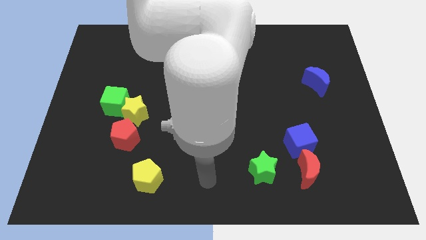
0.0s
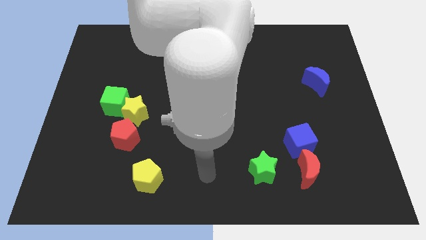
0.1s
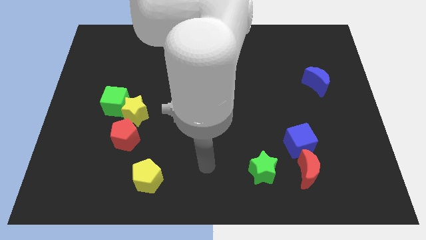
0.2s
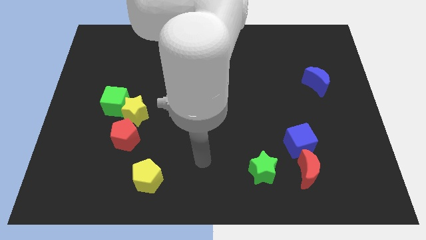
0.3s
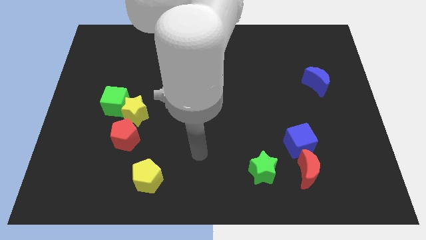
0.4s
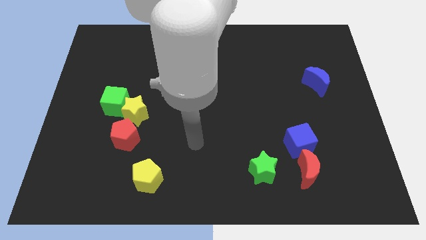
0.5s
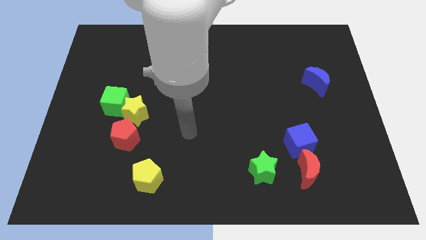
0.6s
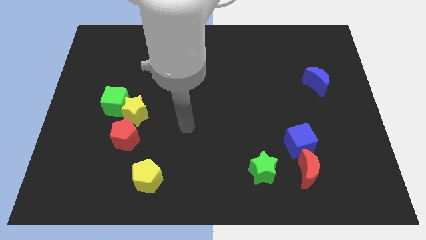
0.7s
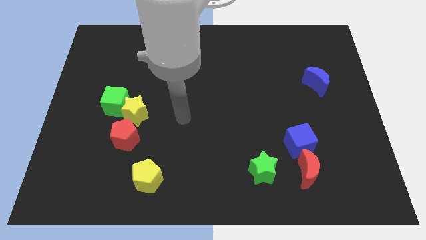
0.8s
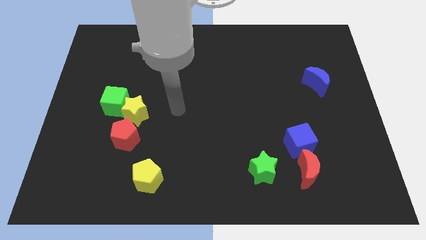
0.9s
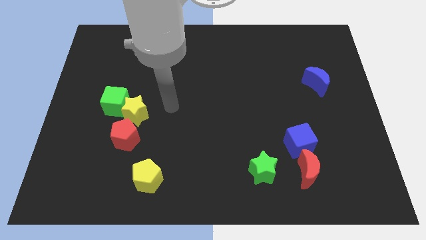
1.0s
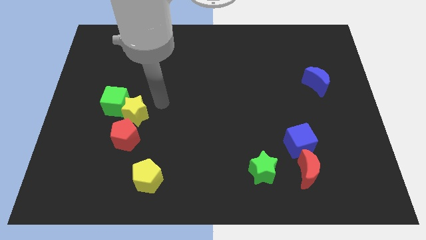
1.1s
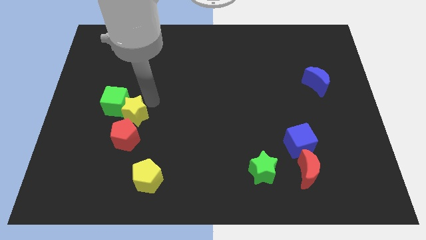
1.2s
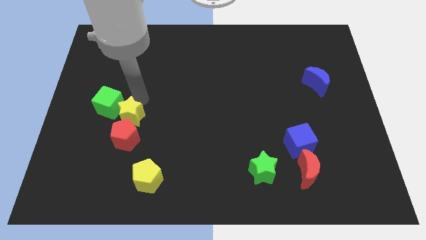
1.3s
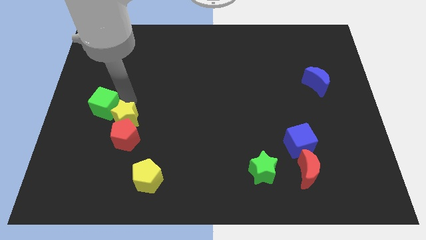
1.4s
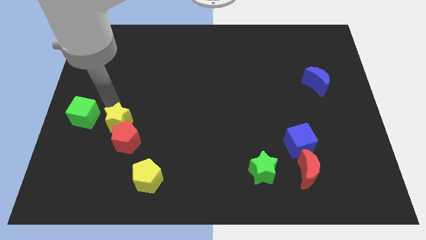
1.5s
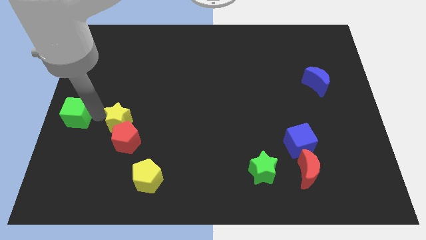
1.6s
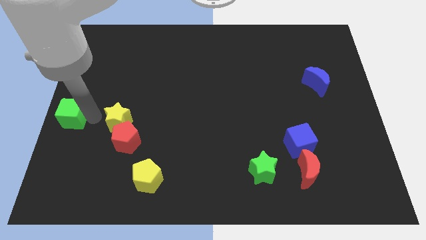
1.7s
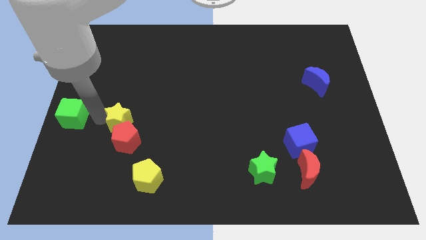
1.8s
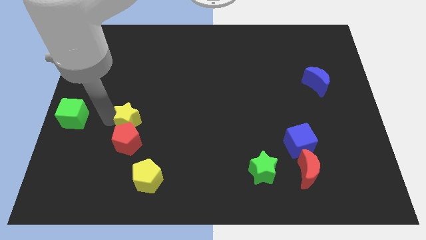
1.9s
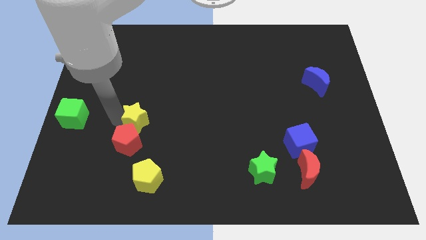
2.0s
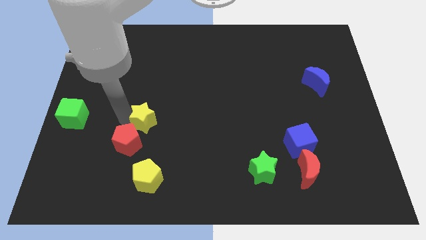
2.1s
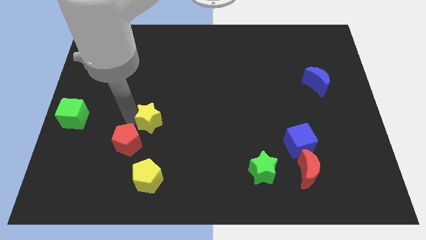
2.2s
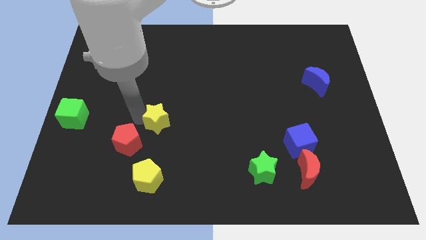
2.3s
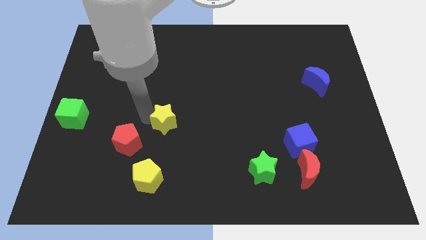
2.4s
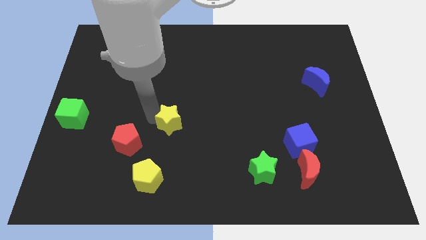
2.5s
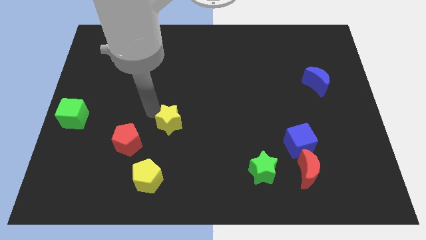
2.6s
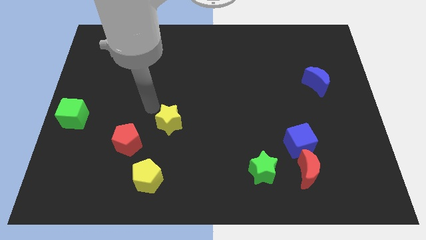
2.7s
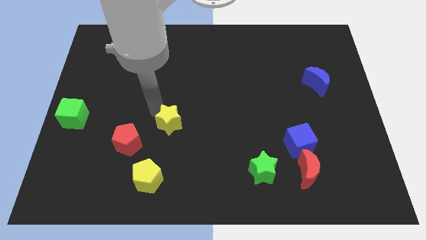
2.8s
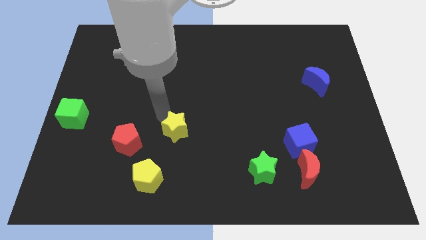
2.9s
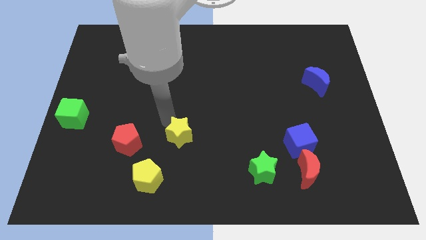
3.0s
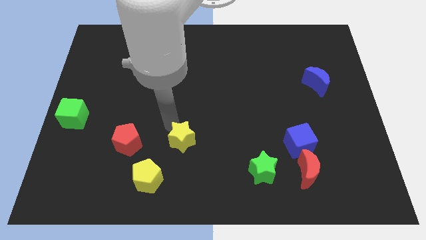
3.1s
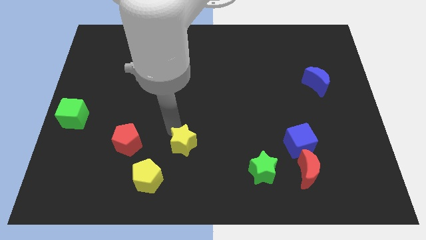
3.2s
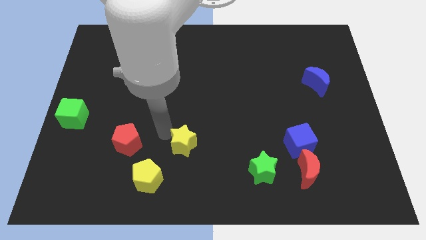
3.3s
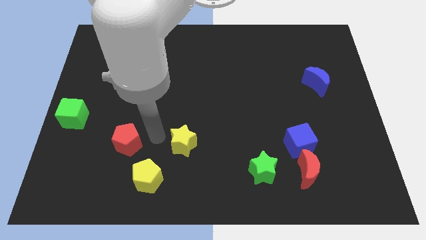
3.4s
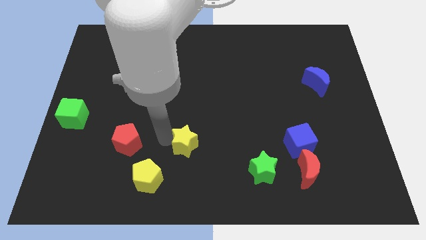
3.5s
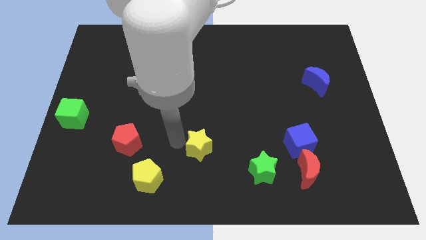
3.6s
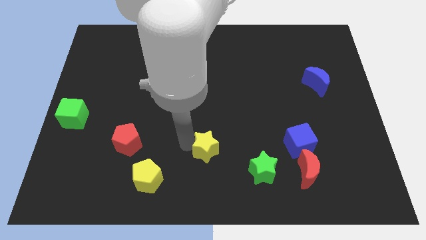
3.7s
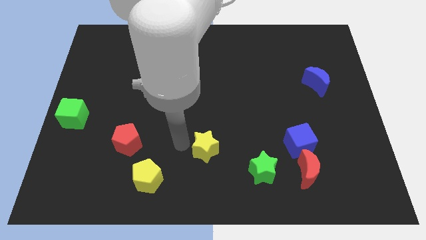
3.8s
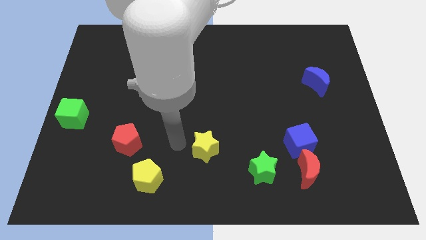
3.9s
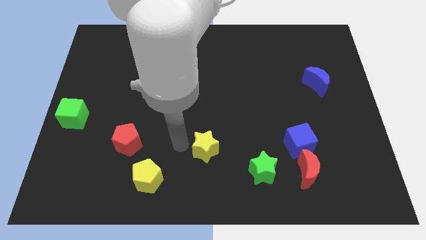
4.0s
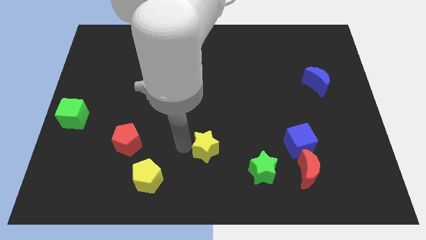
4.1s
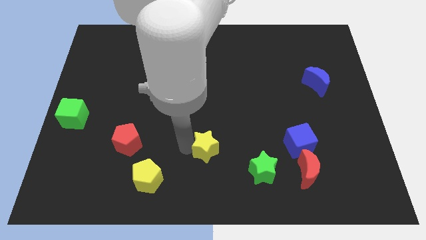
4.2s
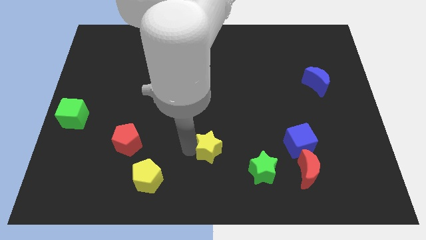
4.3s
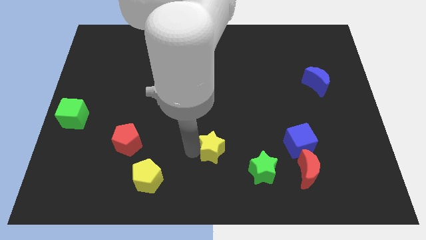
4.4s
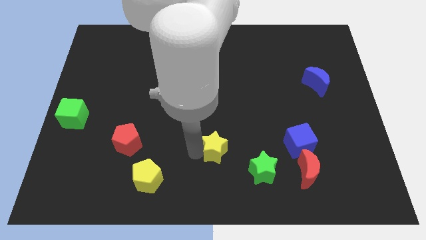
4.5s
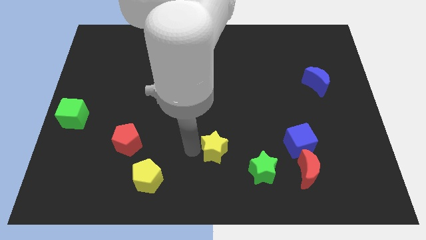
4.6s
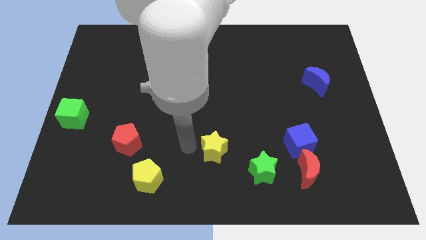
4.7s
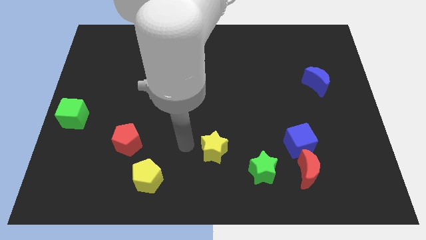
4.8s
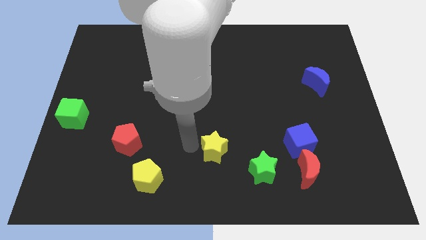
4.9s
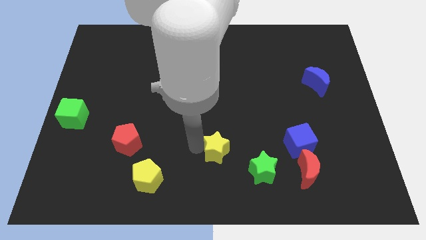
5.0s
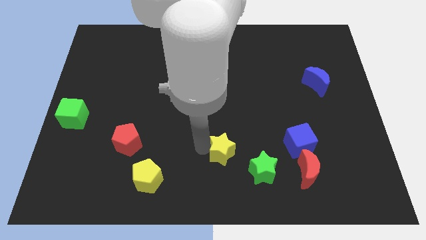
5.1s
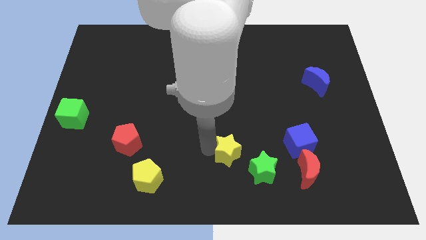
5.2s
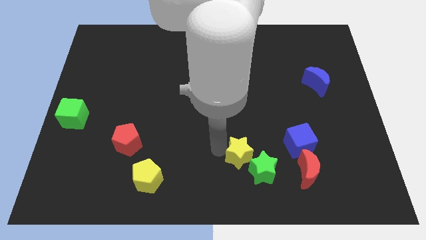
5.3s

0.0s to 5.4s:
put the yellow star towards the green star

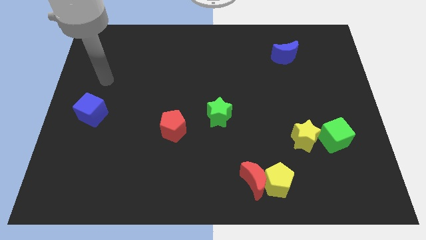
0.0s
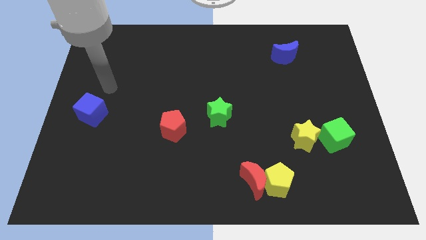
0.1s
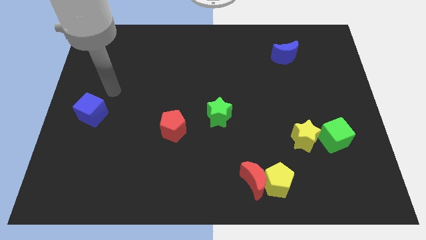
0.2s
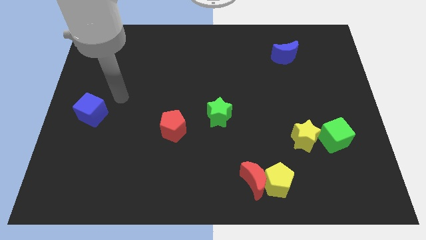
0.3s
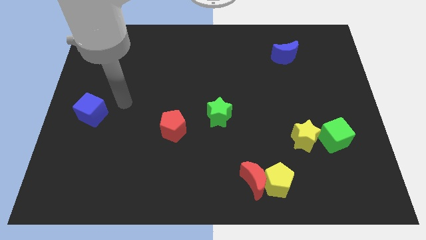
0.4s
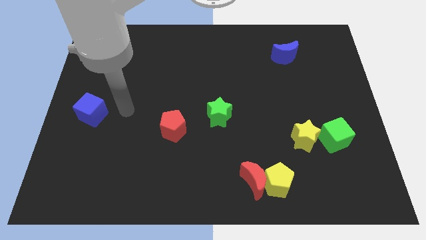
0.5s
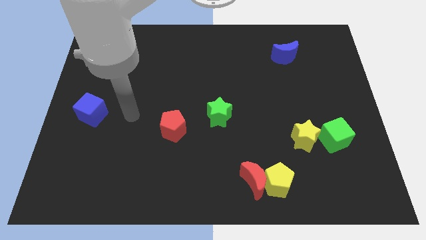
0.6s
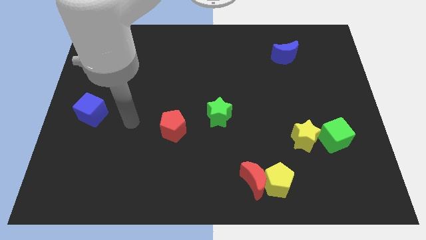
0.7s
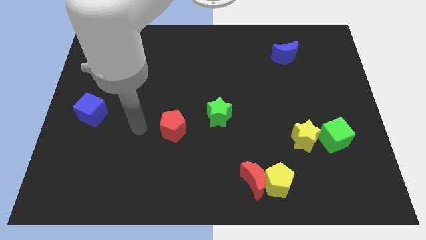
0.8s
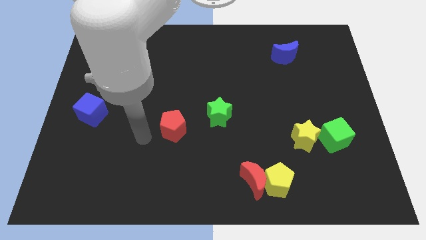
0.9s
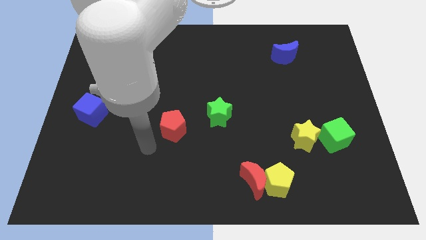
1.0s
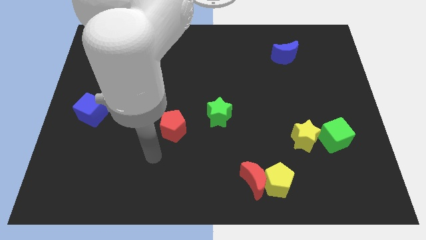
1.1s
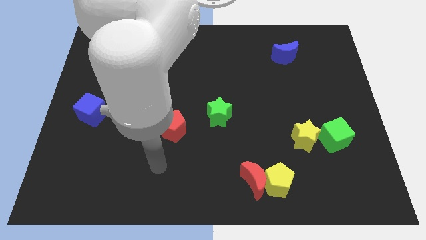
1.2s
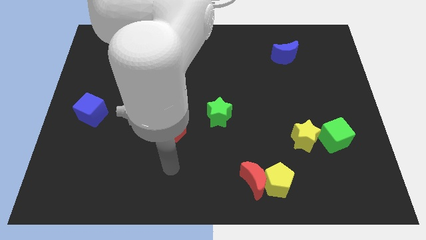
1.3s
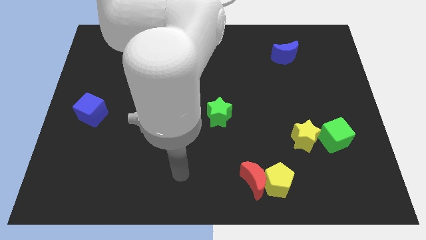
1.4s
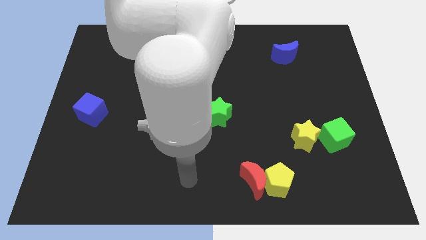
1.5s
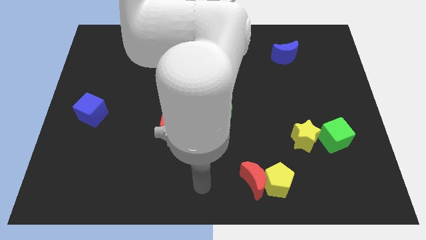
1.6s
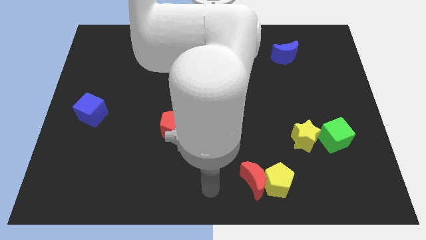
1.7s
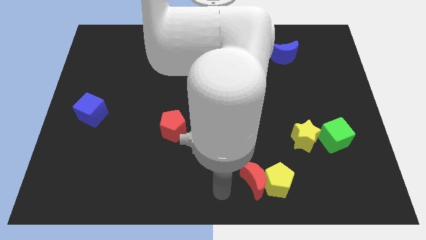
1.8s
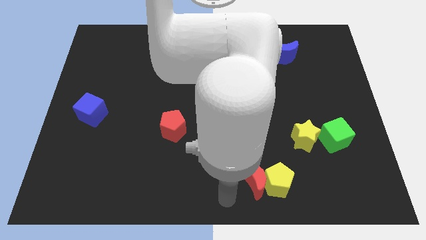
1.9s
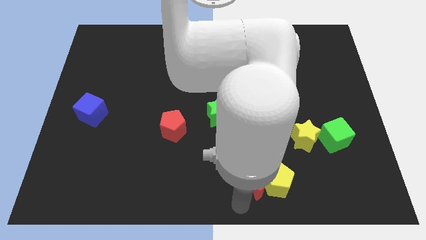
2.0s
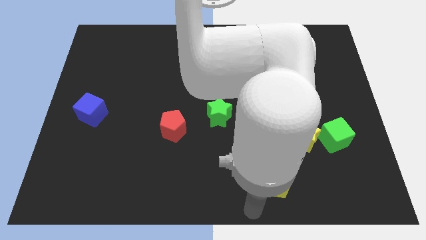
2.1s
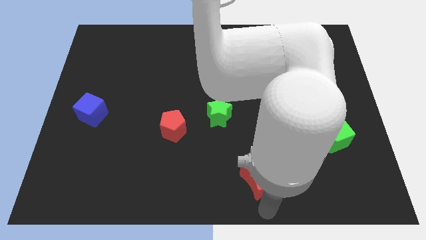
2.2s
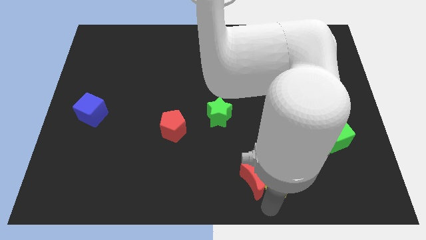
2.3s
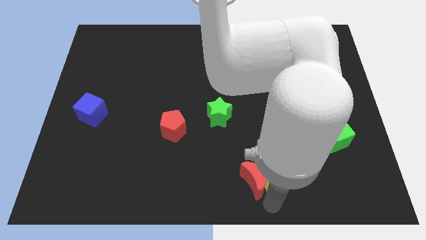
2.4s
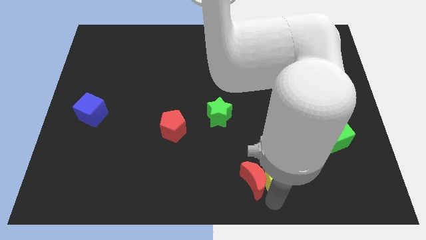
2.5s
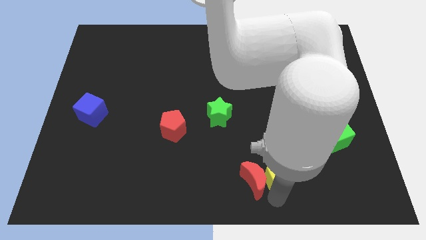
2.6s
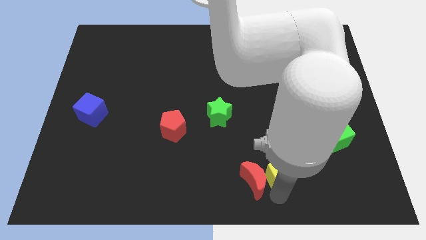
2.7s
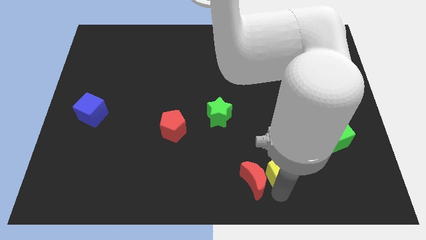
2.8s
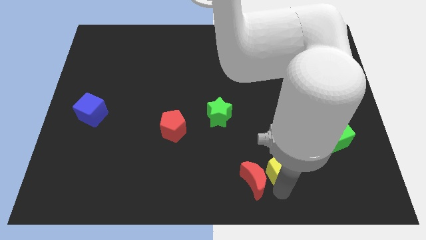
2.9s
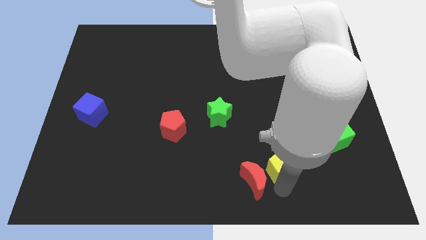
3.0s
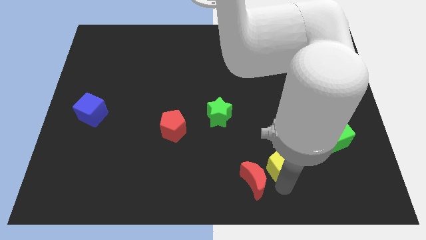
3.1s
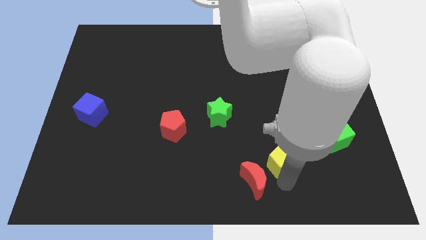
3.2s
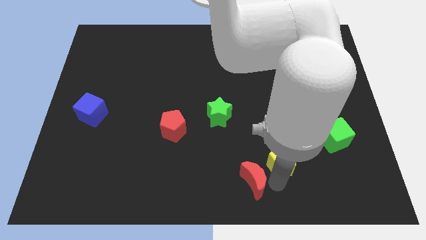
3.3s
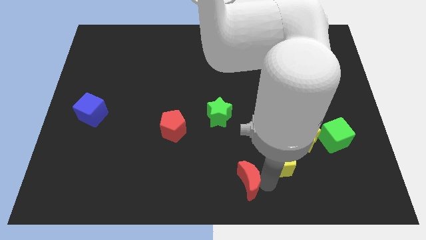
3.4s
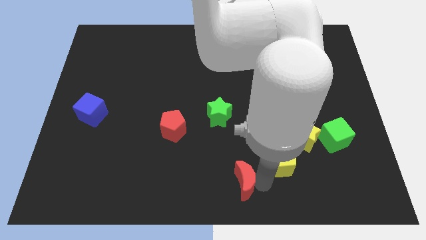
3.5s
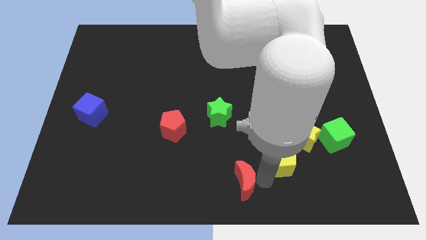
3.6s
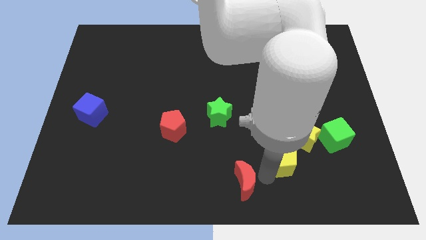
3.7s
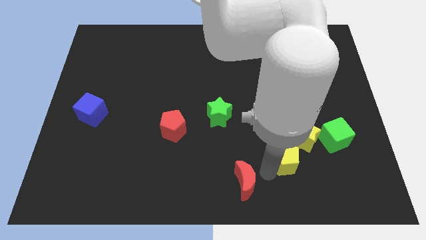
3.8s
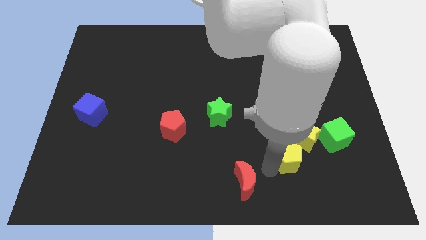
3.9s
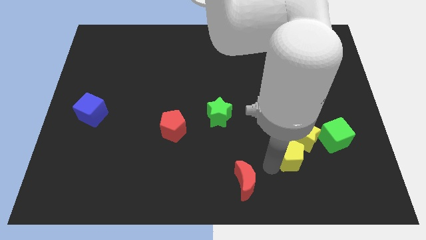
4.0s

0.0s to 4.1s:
put the yellow pentagon to the yellow star
